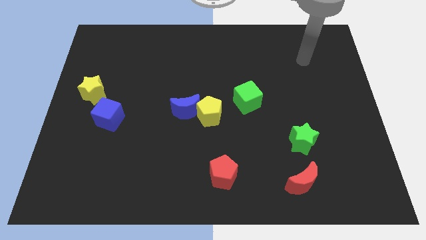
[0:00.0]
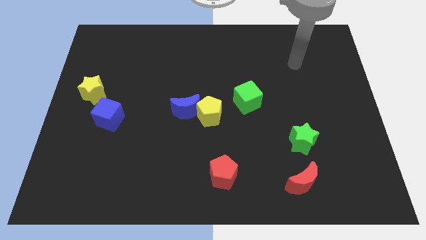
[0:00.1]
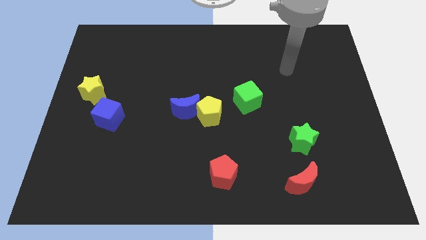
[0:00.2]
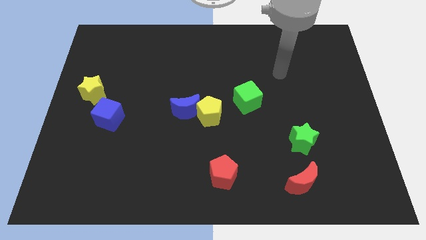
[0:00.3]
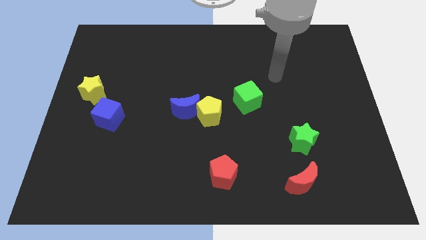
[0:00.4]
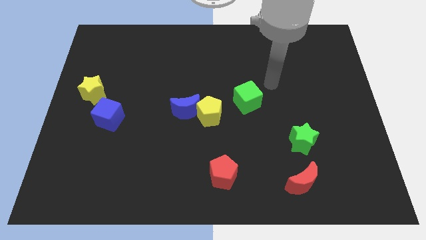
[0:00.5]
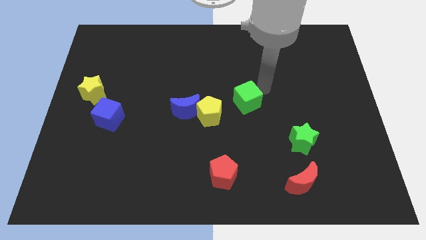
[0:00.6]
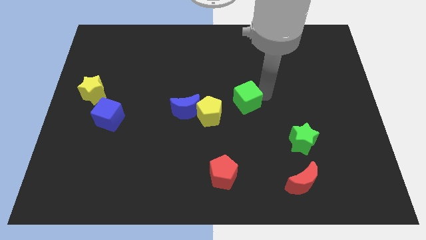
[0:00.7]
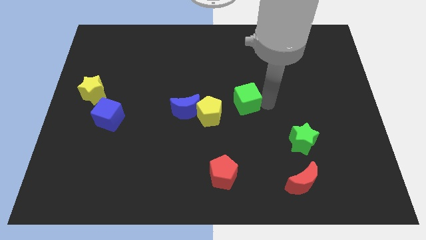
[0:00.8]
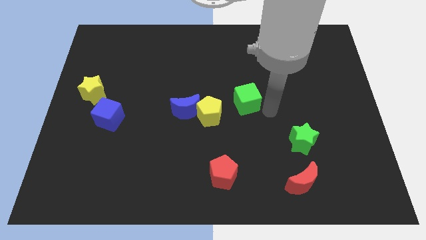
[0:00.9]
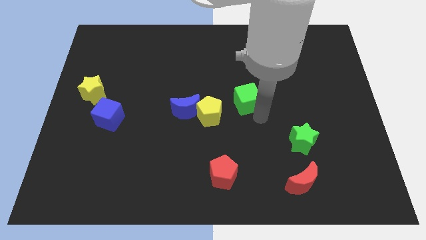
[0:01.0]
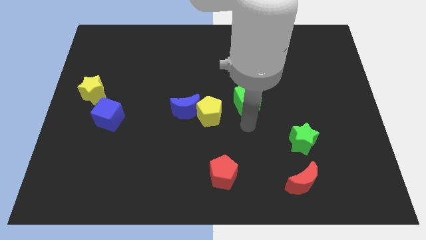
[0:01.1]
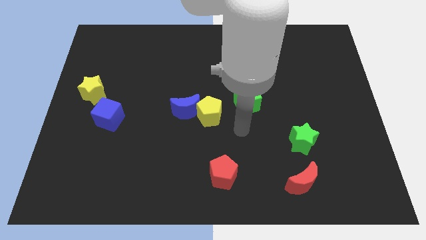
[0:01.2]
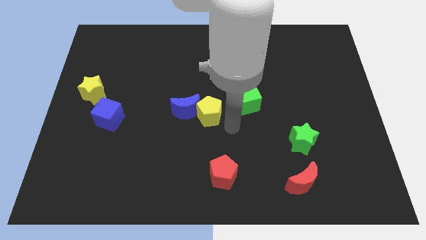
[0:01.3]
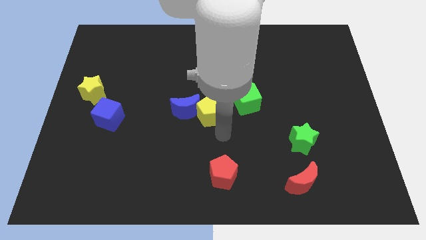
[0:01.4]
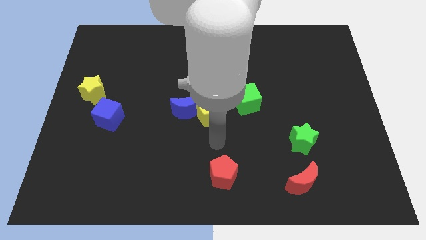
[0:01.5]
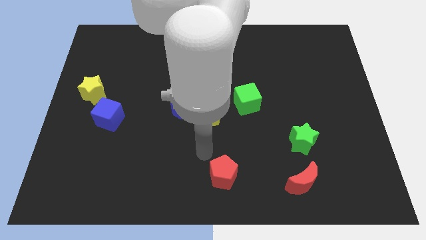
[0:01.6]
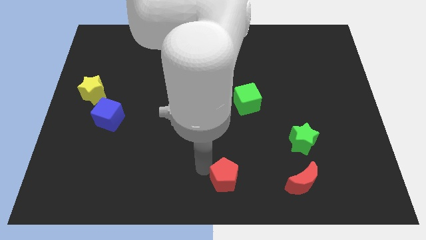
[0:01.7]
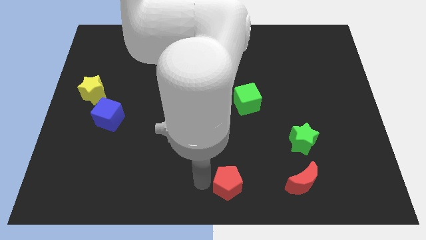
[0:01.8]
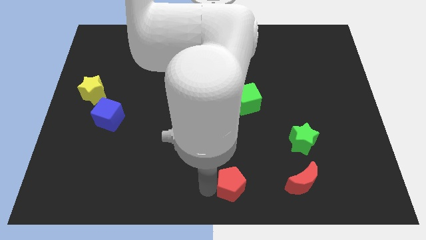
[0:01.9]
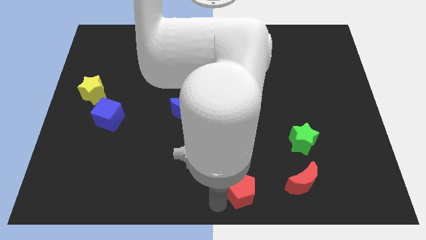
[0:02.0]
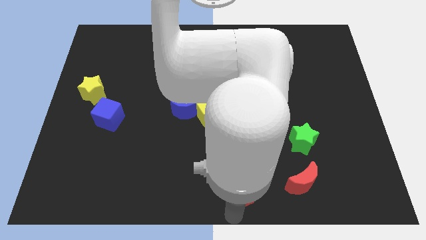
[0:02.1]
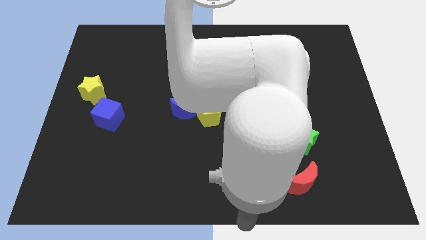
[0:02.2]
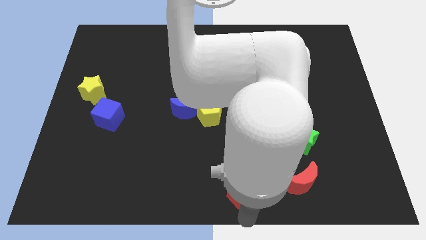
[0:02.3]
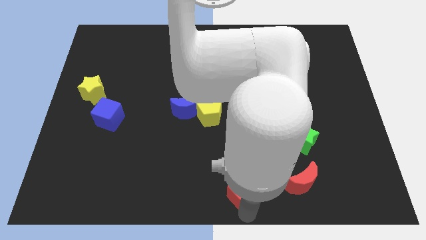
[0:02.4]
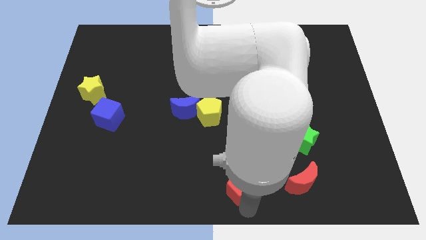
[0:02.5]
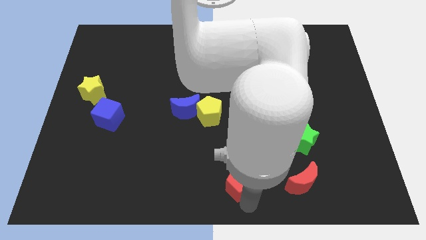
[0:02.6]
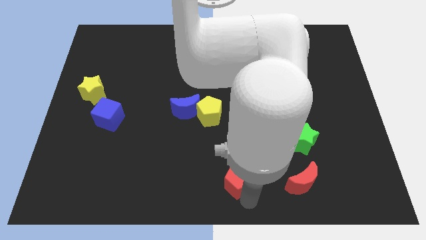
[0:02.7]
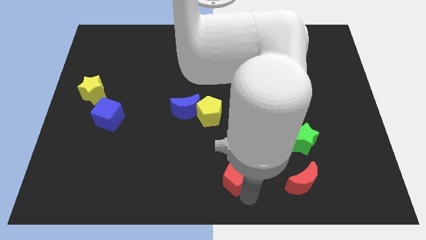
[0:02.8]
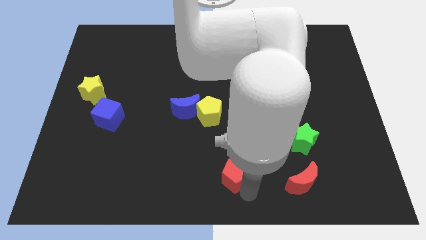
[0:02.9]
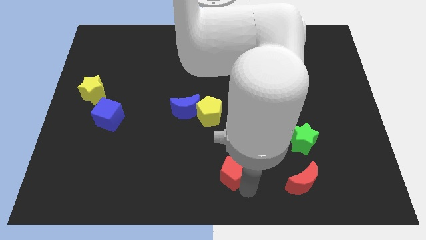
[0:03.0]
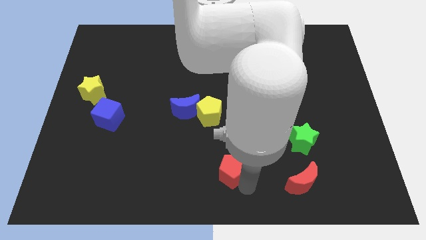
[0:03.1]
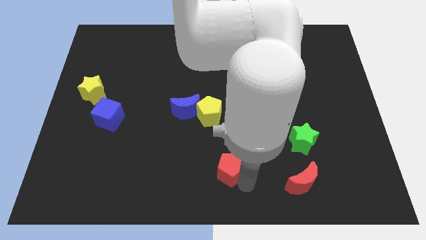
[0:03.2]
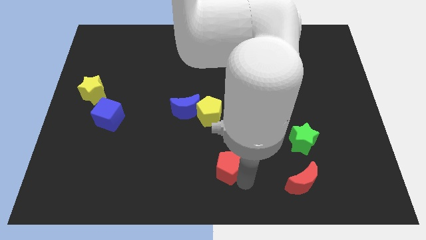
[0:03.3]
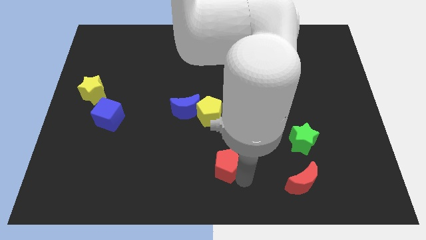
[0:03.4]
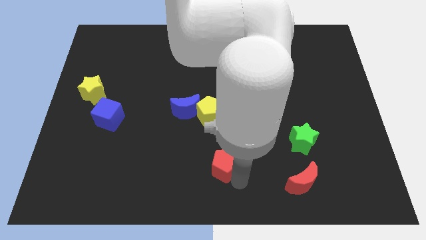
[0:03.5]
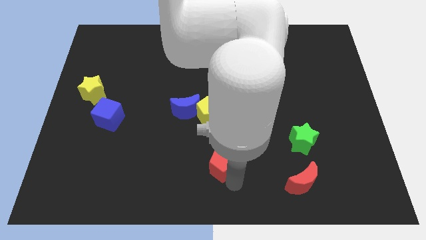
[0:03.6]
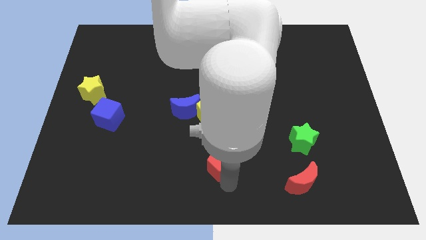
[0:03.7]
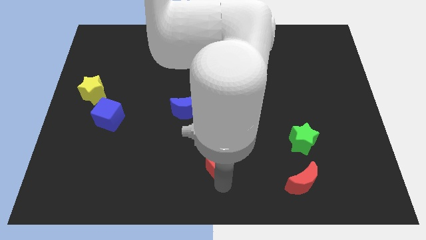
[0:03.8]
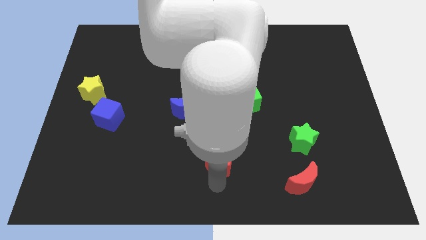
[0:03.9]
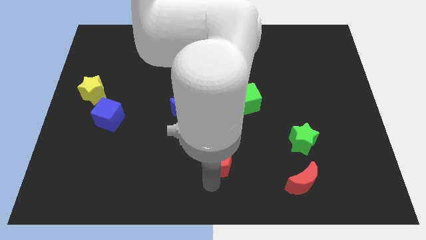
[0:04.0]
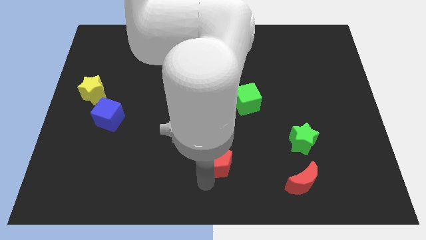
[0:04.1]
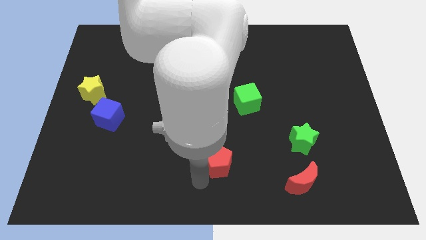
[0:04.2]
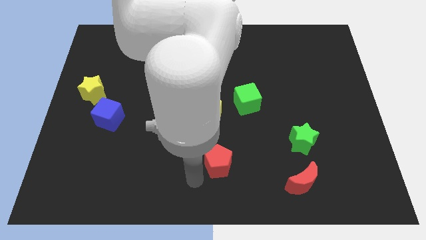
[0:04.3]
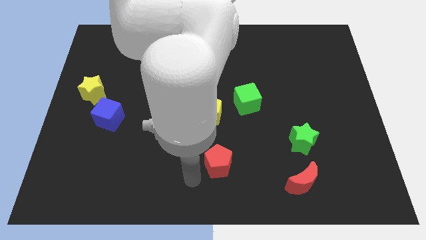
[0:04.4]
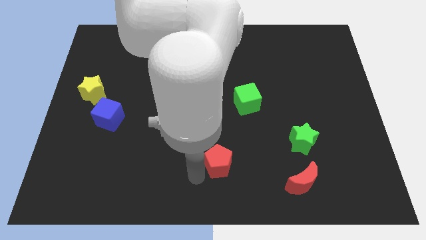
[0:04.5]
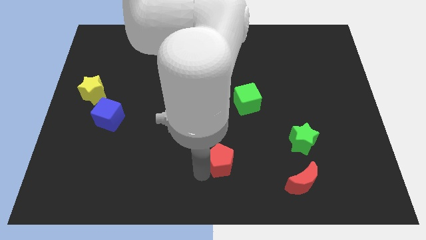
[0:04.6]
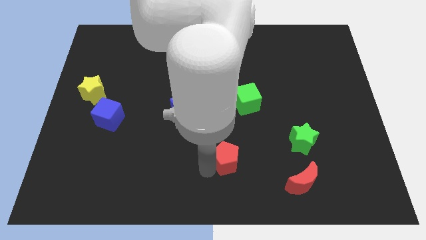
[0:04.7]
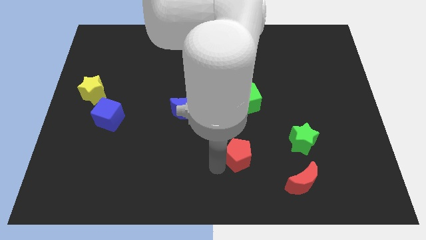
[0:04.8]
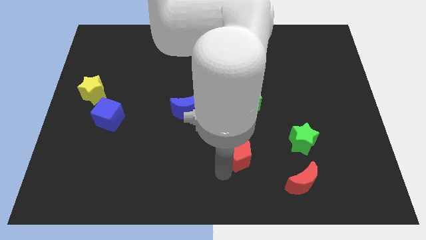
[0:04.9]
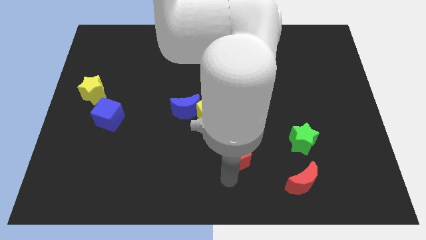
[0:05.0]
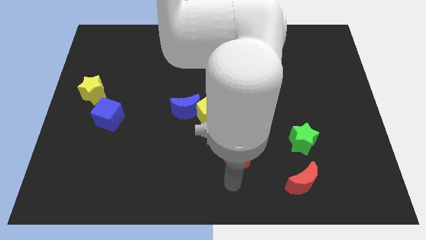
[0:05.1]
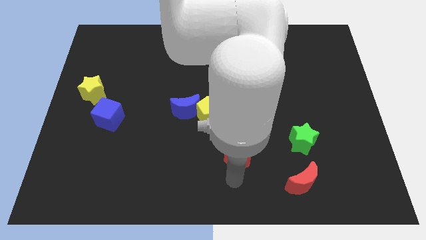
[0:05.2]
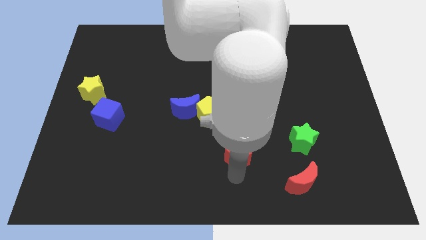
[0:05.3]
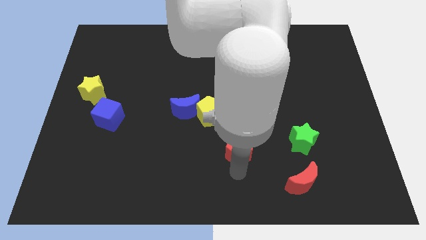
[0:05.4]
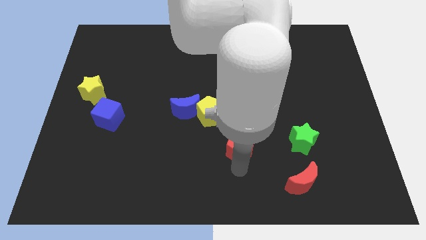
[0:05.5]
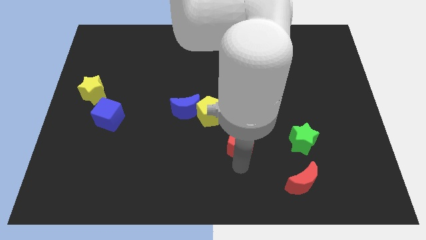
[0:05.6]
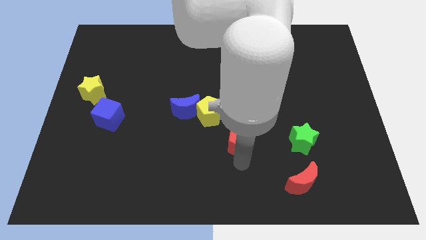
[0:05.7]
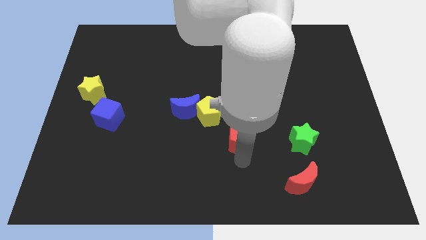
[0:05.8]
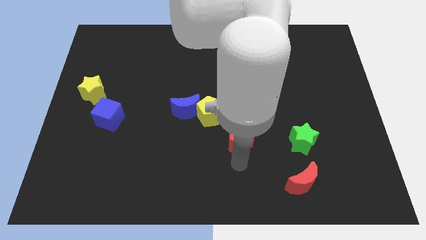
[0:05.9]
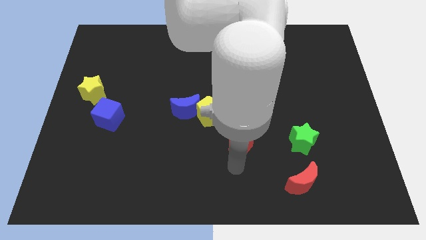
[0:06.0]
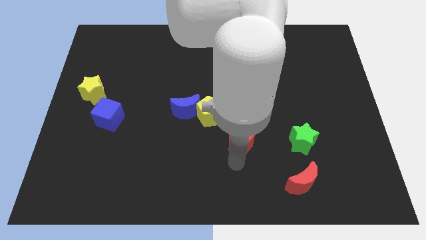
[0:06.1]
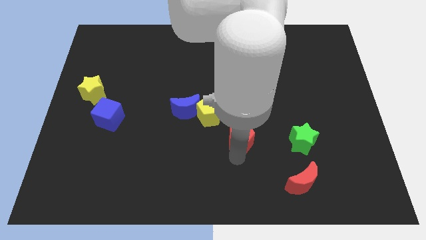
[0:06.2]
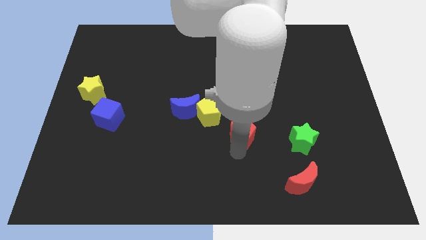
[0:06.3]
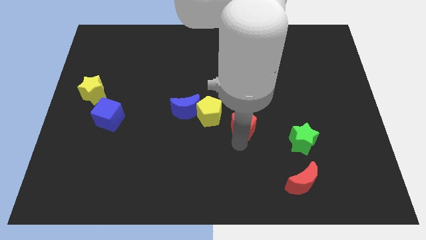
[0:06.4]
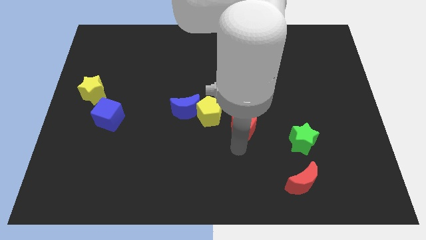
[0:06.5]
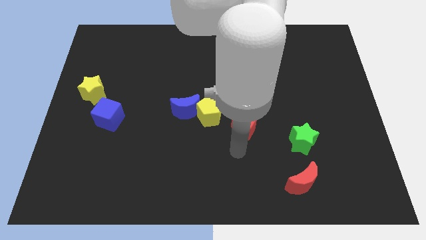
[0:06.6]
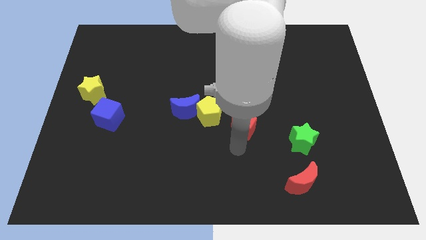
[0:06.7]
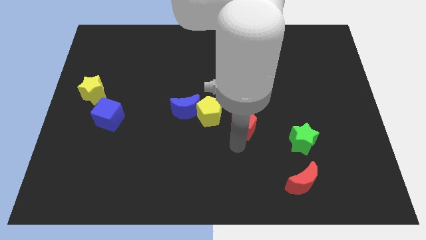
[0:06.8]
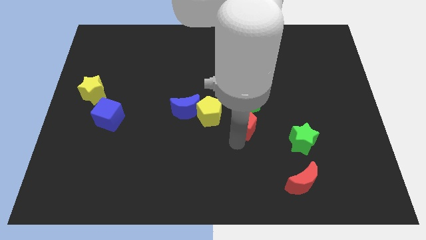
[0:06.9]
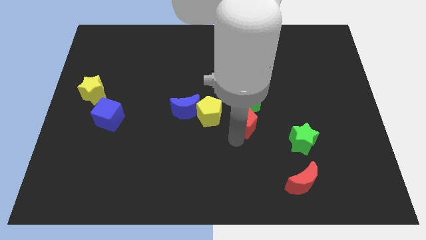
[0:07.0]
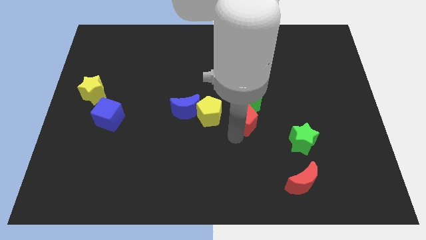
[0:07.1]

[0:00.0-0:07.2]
push the red pentagon towards the green cube
